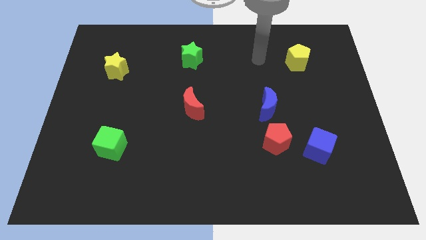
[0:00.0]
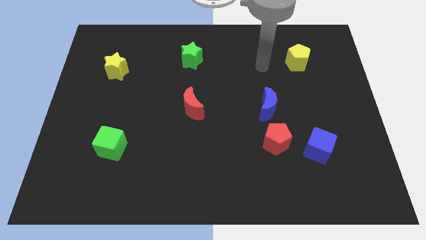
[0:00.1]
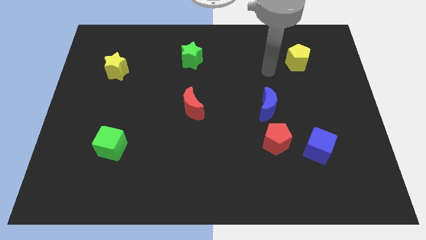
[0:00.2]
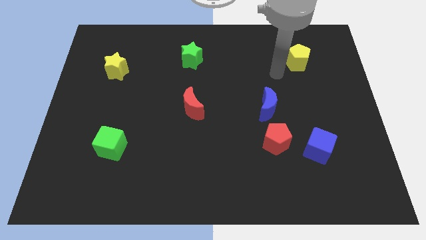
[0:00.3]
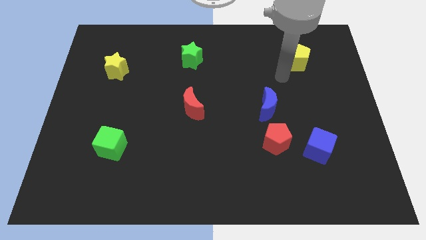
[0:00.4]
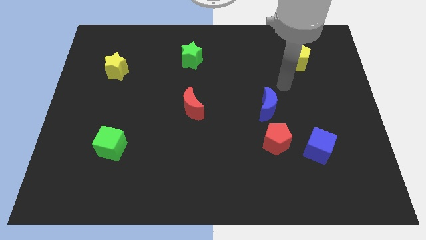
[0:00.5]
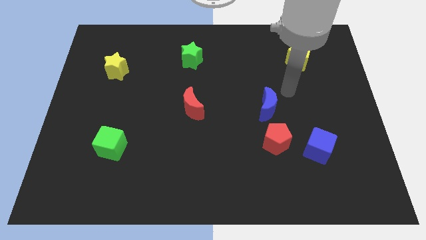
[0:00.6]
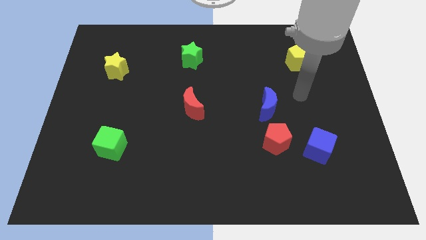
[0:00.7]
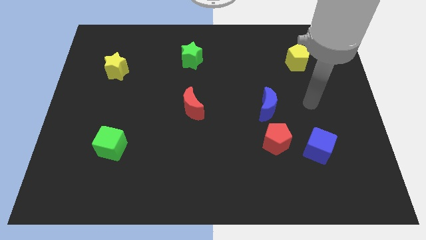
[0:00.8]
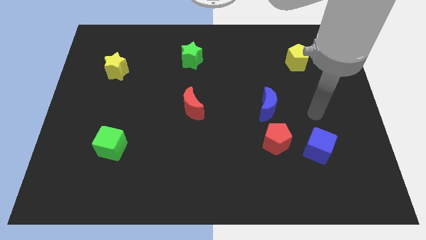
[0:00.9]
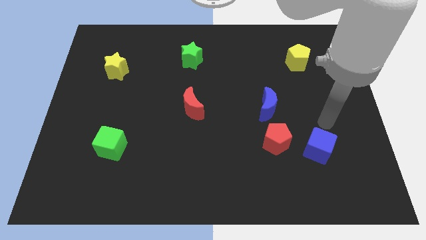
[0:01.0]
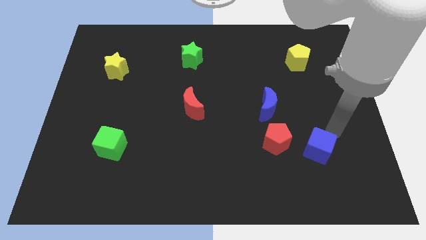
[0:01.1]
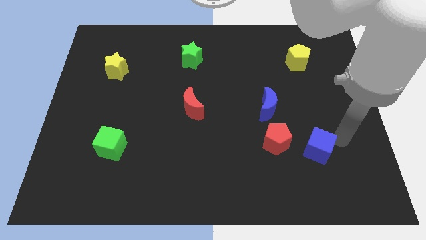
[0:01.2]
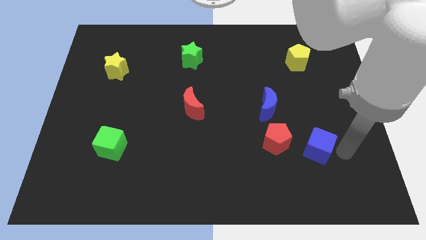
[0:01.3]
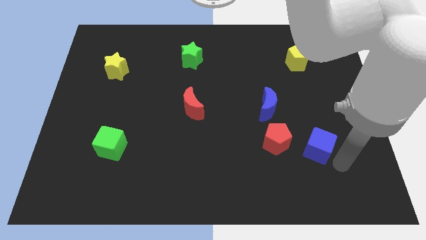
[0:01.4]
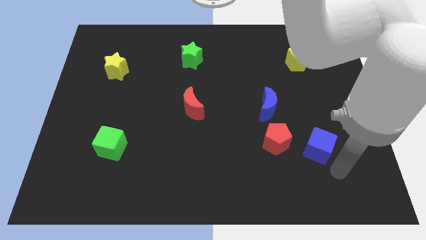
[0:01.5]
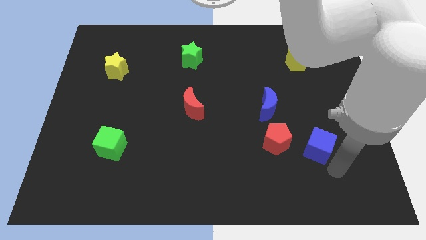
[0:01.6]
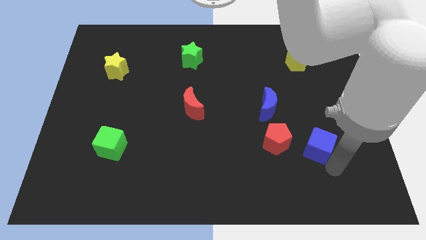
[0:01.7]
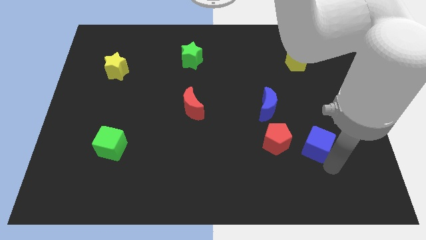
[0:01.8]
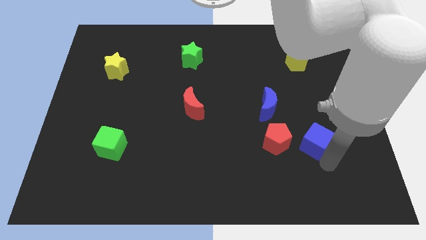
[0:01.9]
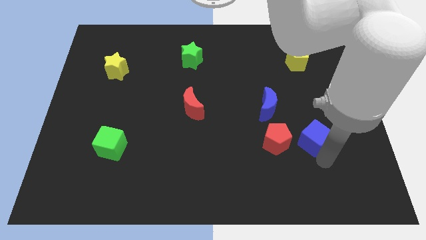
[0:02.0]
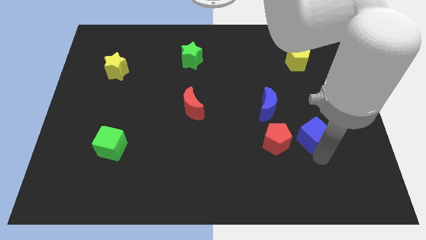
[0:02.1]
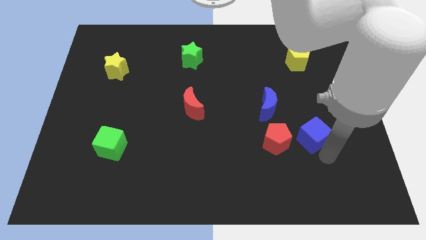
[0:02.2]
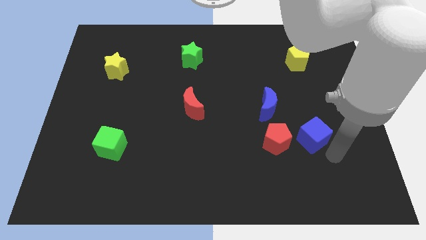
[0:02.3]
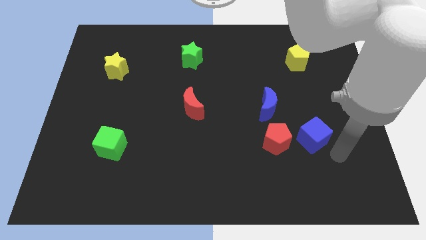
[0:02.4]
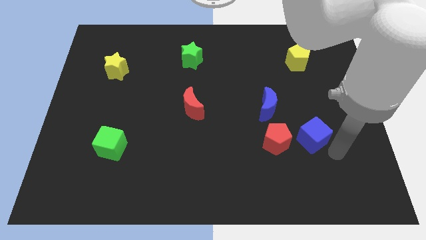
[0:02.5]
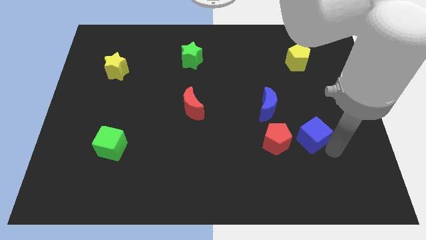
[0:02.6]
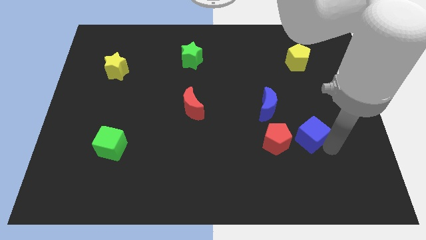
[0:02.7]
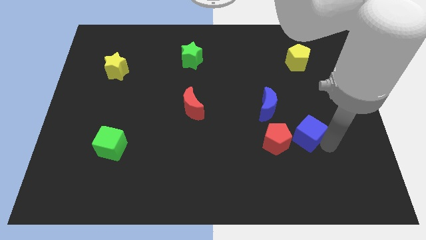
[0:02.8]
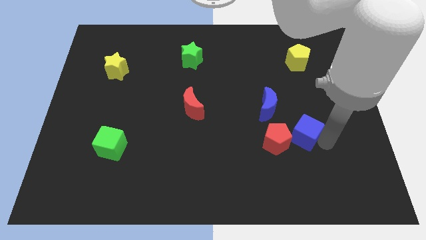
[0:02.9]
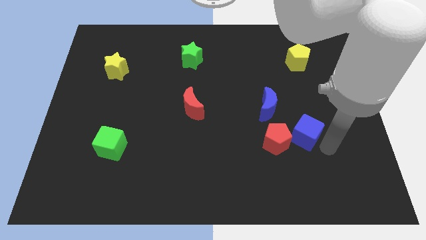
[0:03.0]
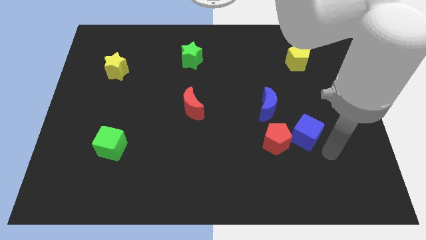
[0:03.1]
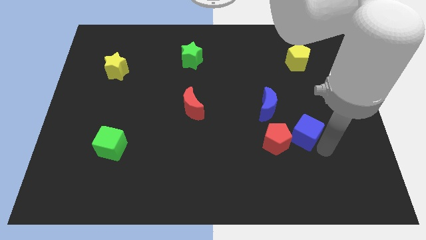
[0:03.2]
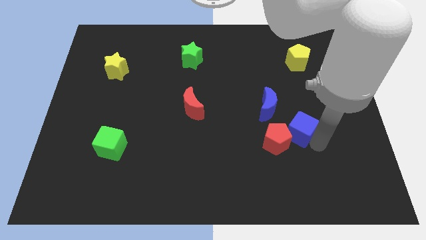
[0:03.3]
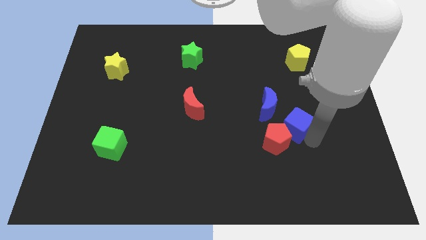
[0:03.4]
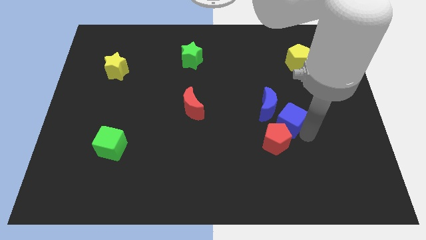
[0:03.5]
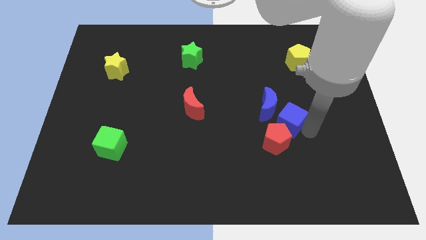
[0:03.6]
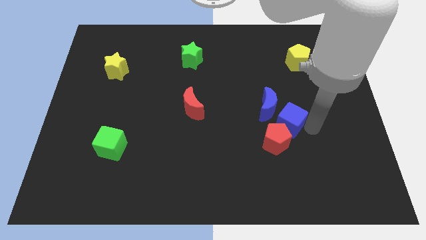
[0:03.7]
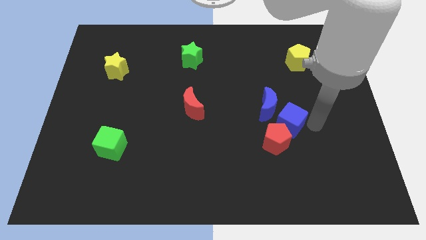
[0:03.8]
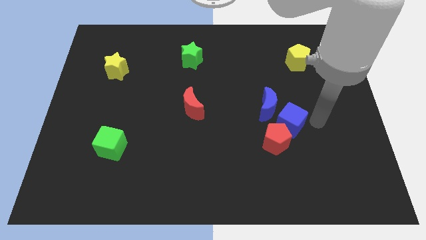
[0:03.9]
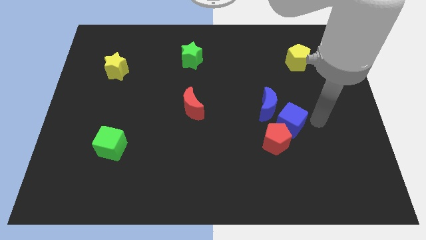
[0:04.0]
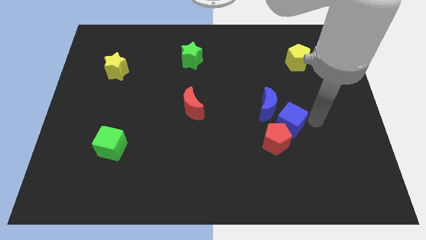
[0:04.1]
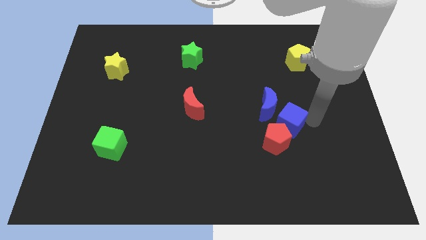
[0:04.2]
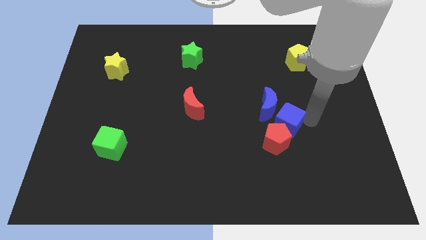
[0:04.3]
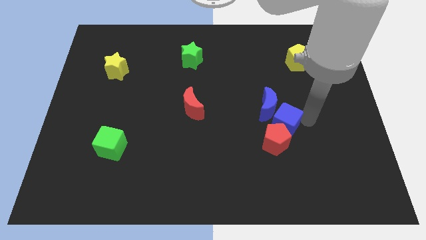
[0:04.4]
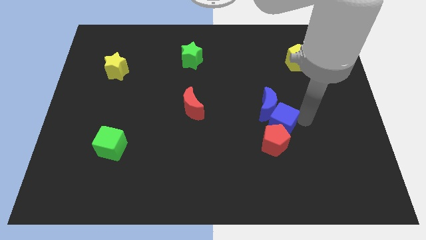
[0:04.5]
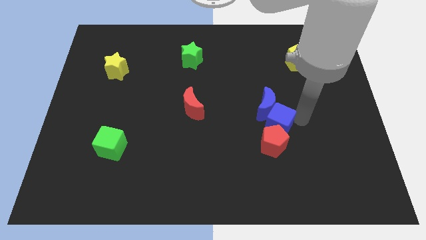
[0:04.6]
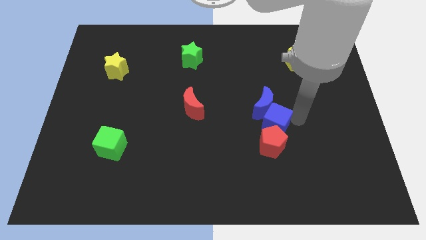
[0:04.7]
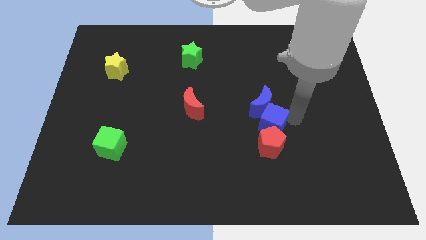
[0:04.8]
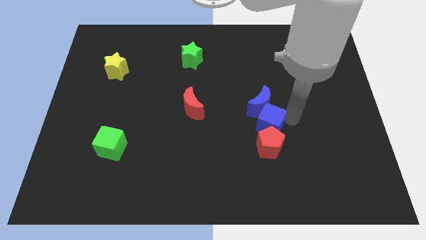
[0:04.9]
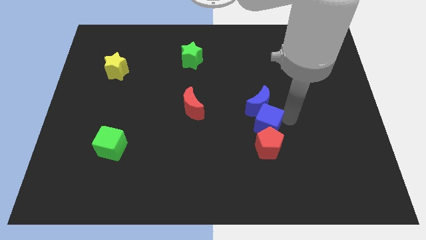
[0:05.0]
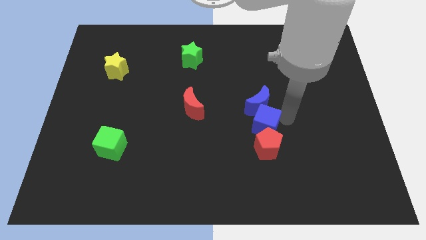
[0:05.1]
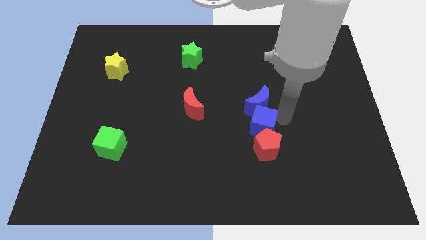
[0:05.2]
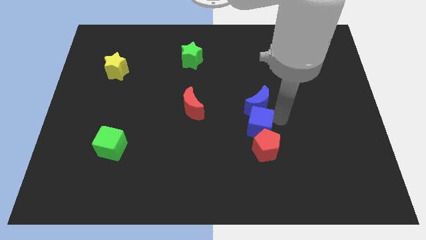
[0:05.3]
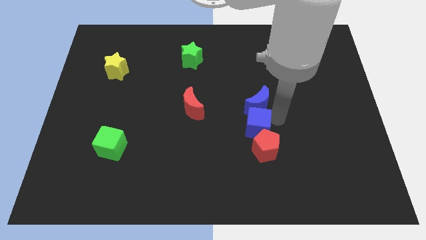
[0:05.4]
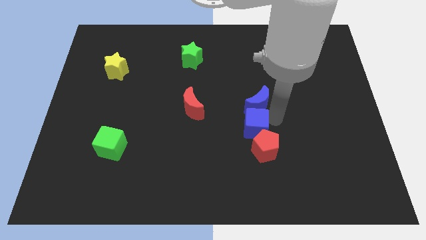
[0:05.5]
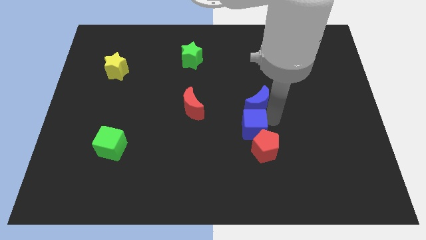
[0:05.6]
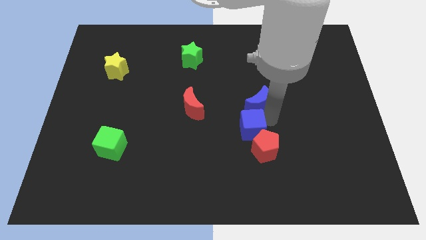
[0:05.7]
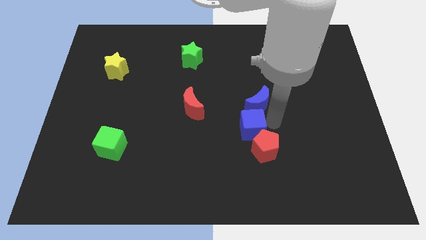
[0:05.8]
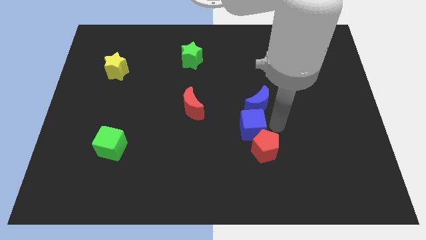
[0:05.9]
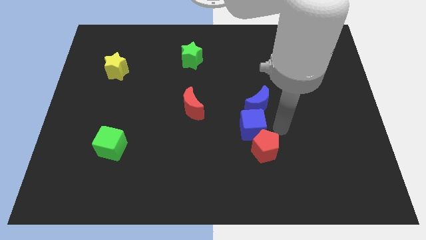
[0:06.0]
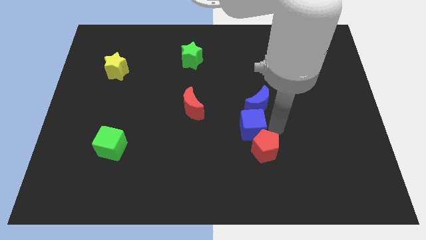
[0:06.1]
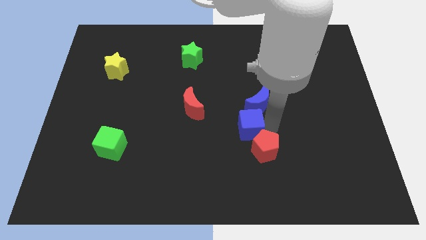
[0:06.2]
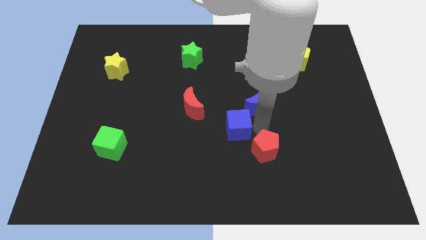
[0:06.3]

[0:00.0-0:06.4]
push the blue cube diagonally down and to the right of the red moon
